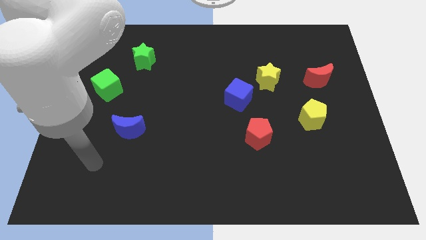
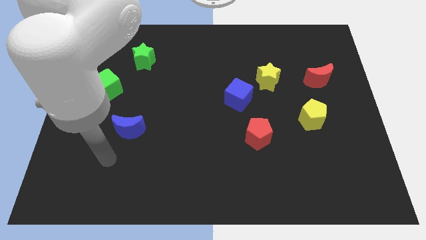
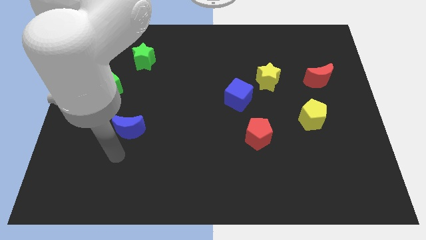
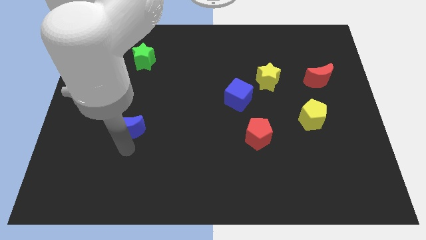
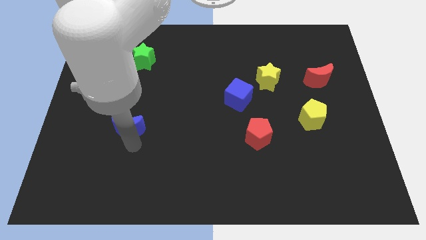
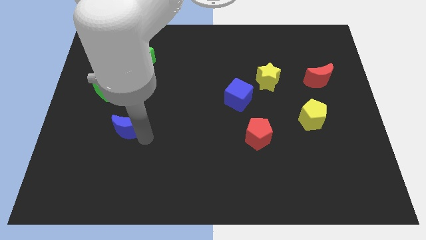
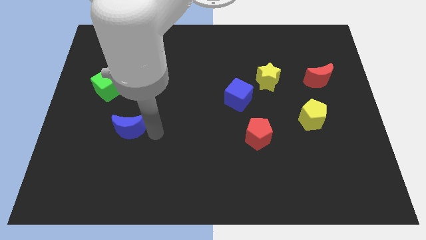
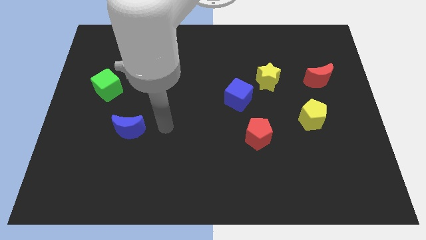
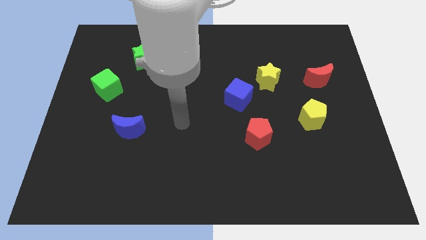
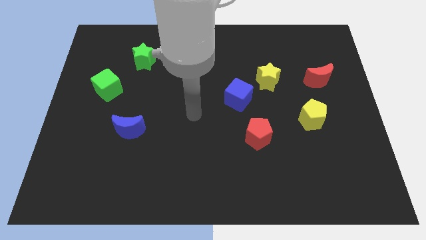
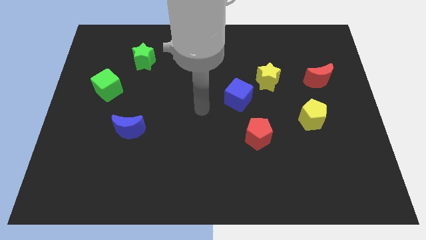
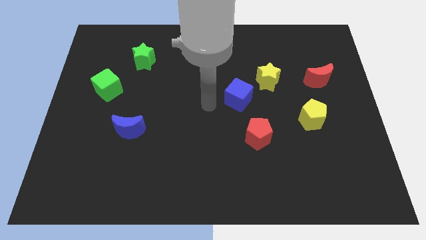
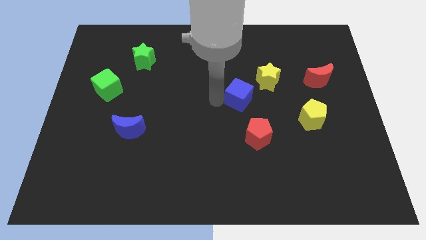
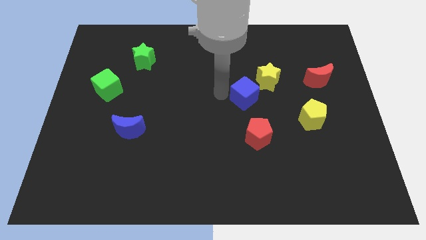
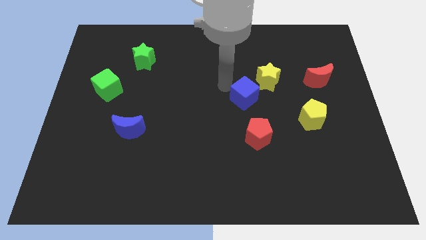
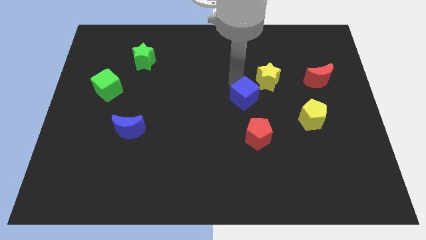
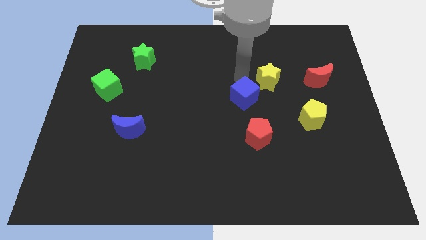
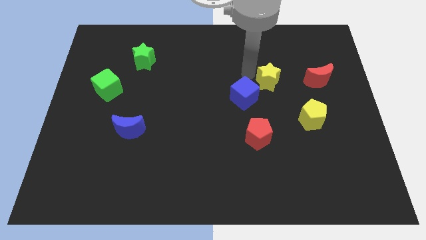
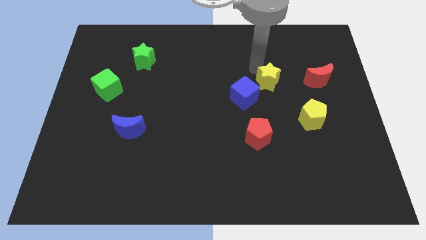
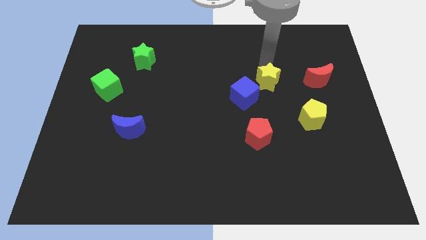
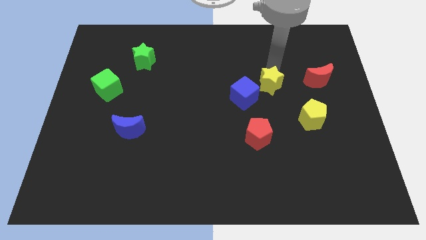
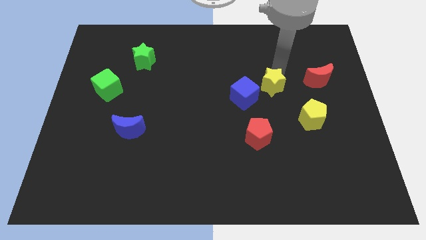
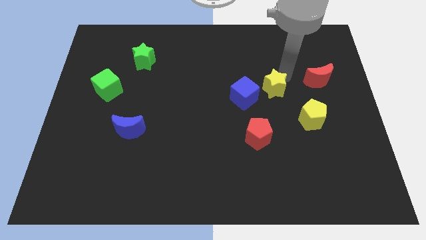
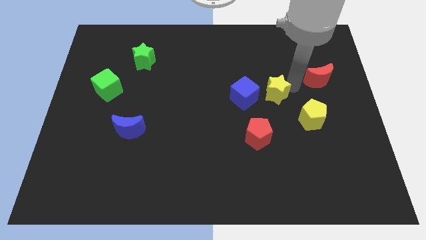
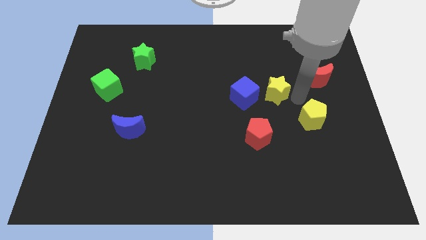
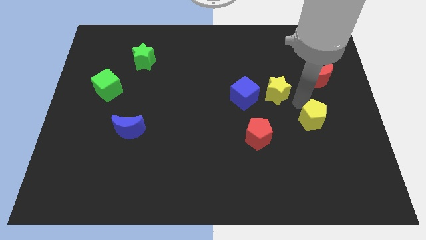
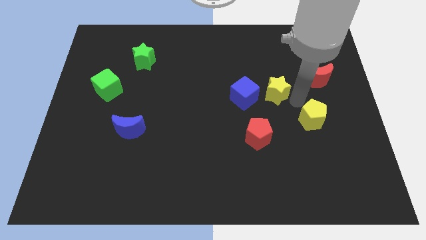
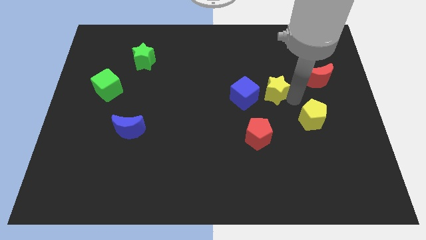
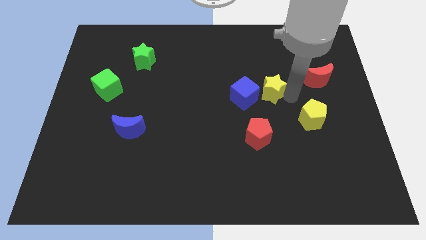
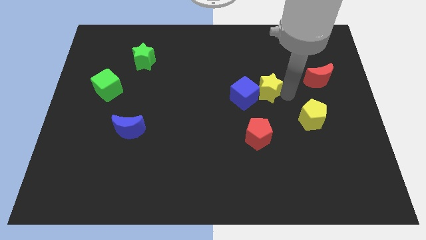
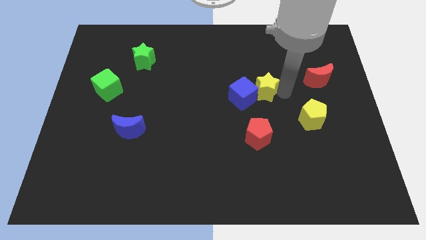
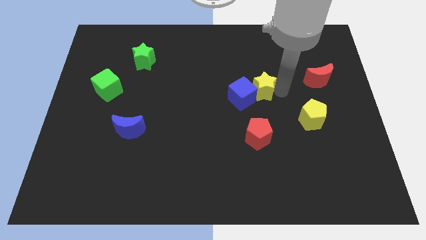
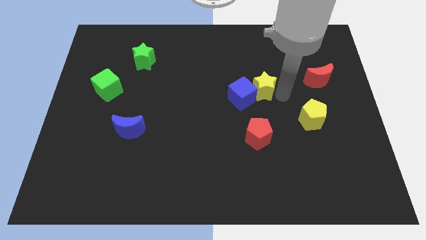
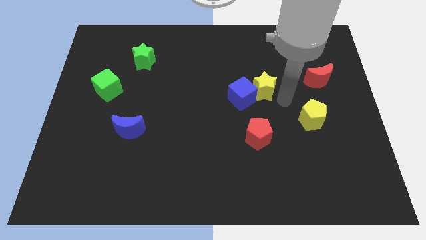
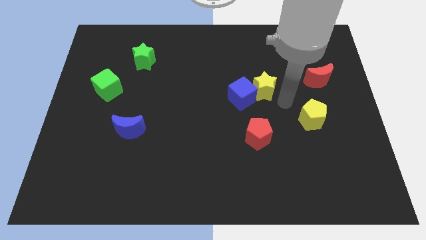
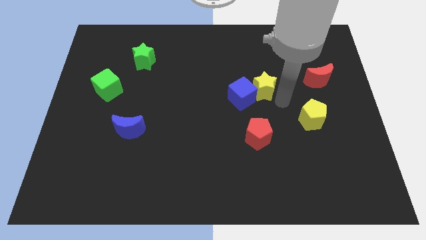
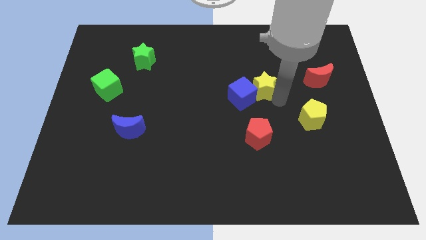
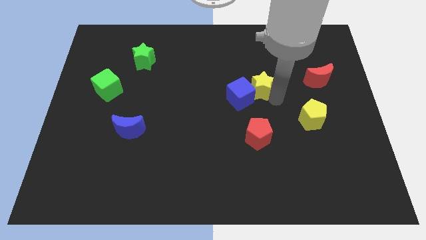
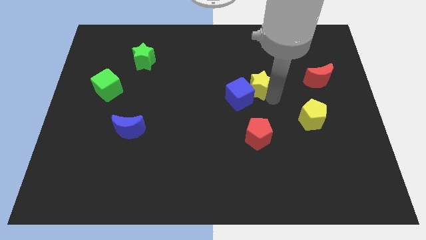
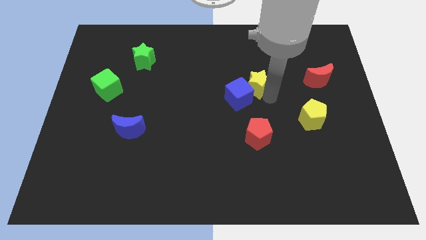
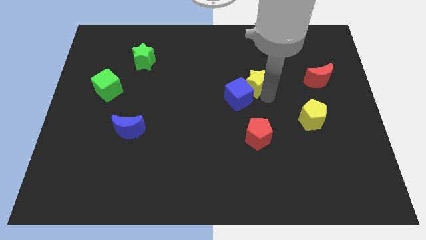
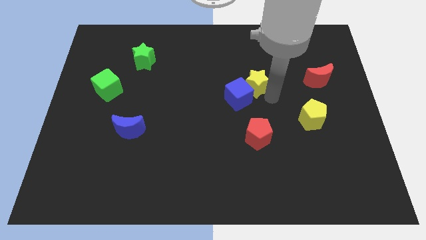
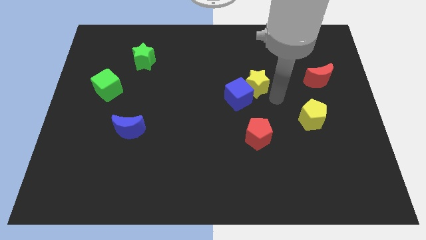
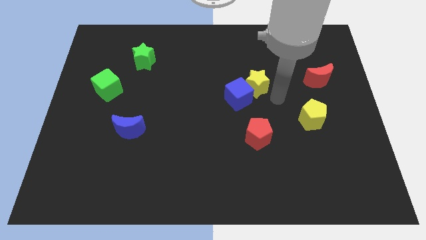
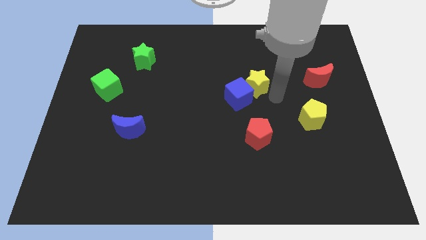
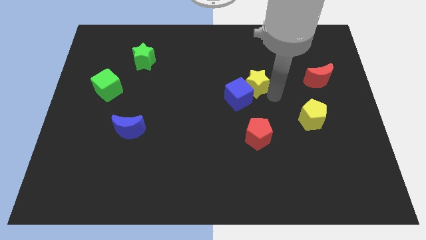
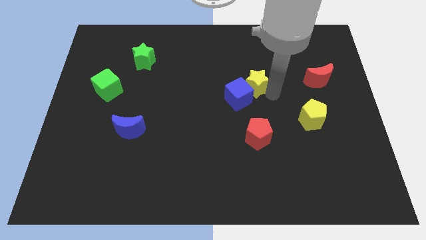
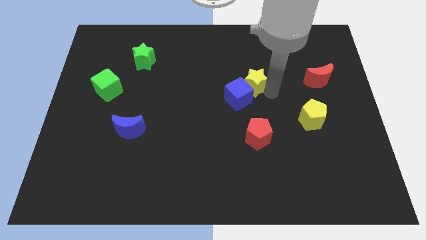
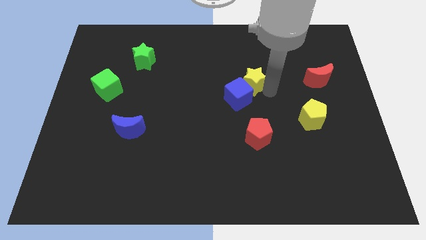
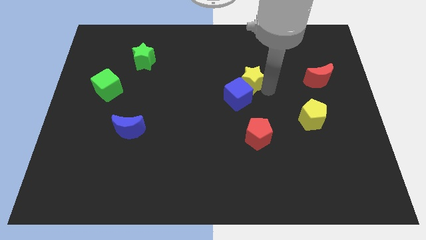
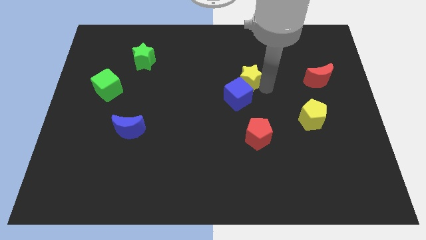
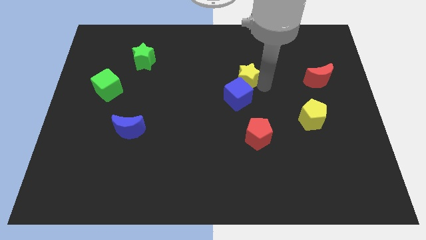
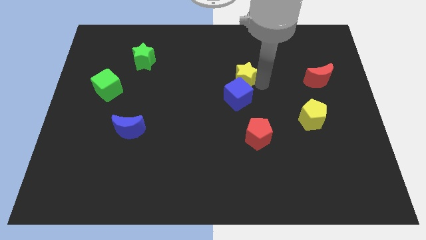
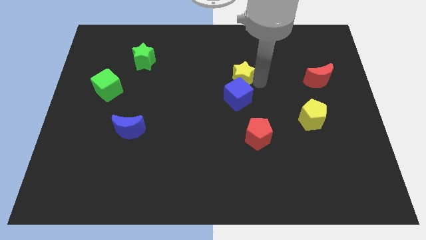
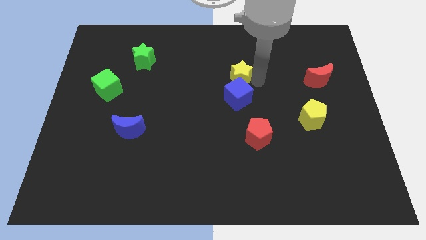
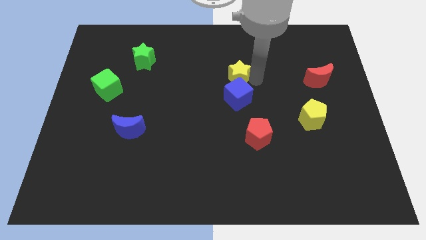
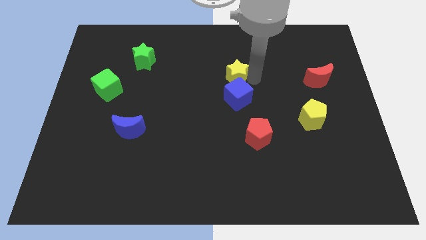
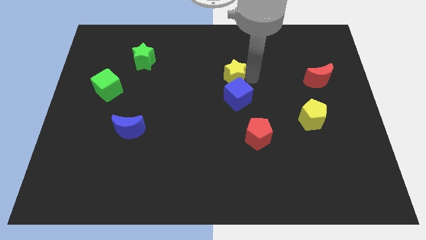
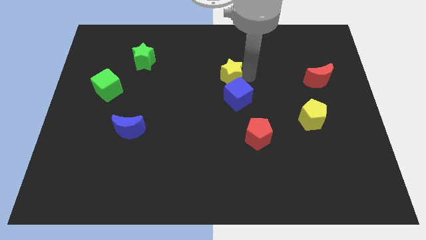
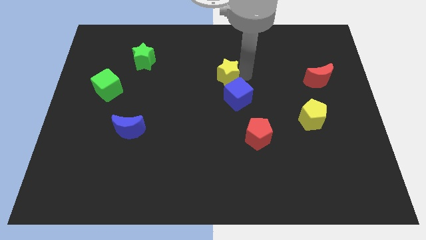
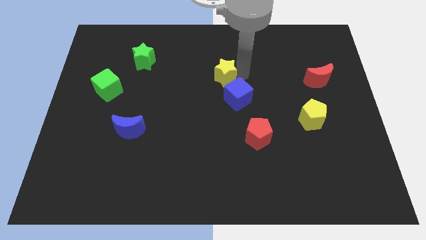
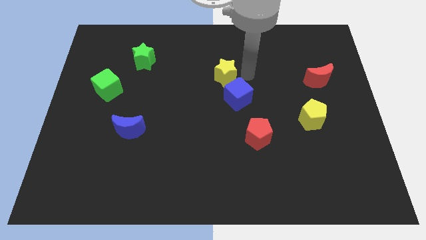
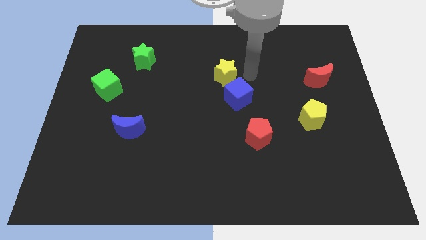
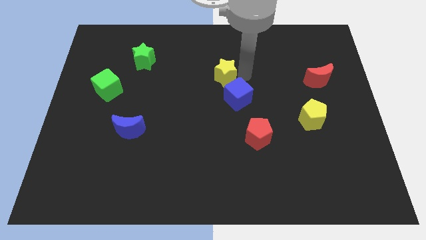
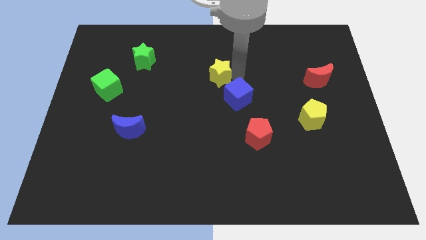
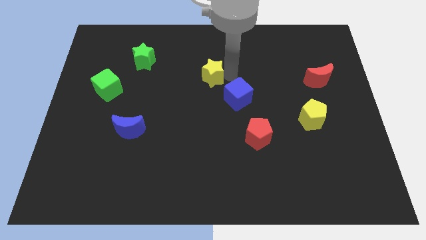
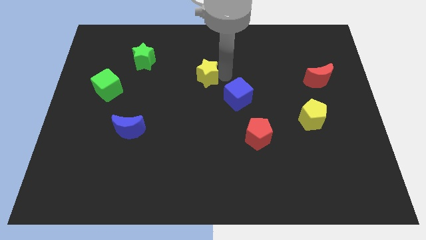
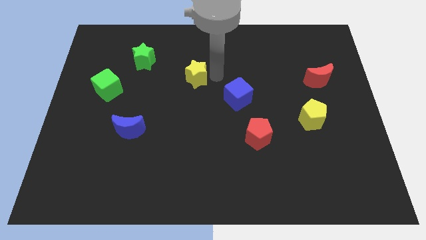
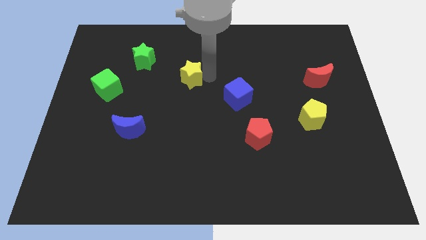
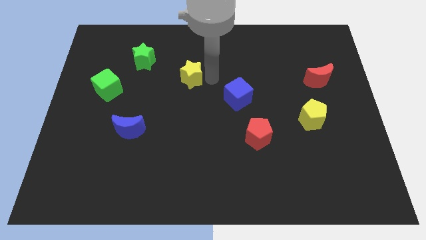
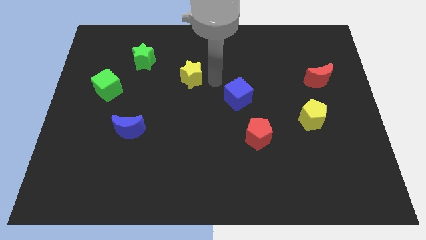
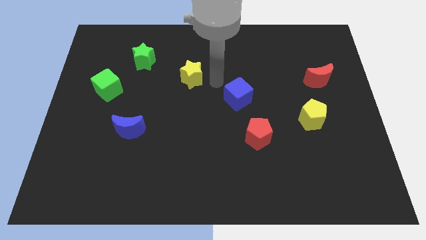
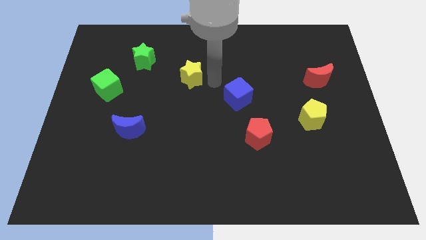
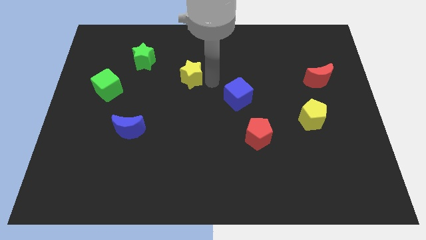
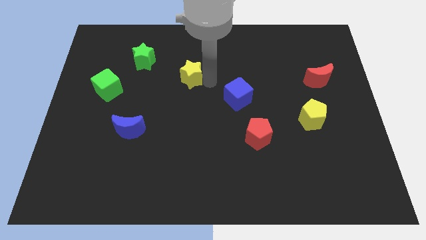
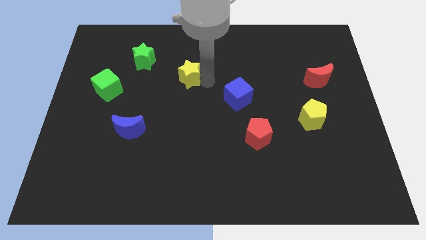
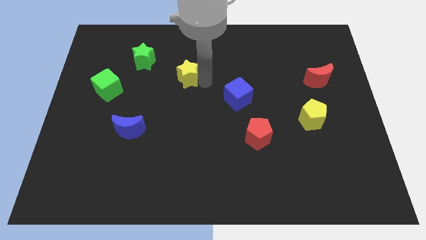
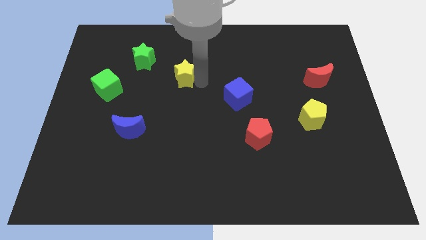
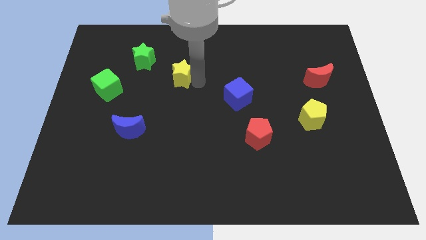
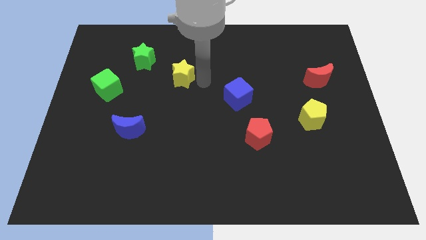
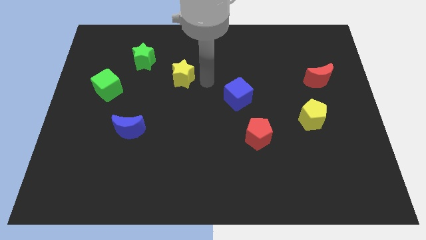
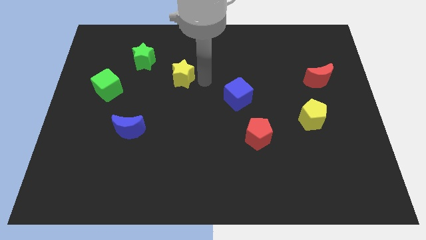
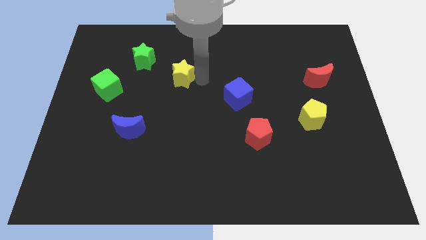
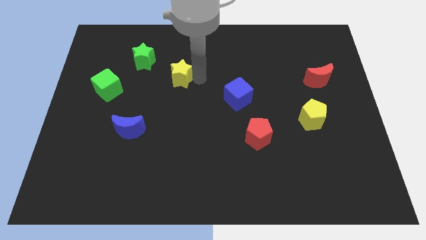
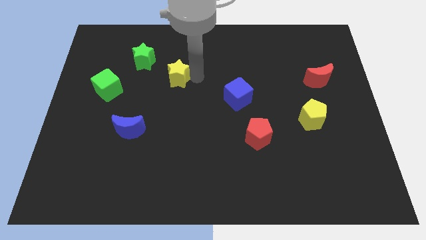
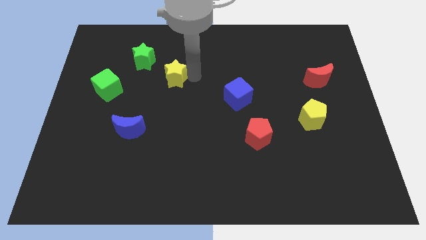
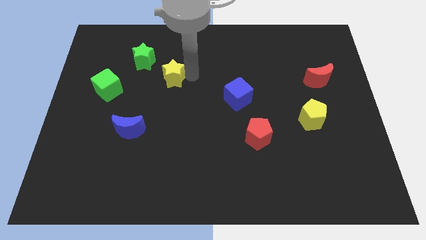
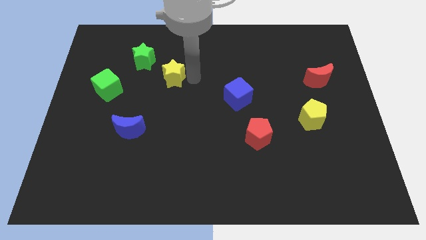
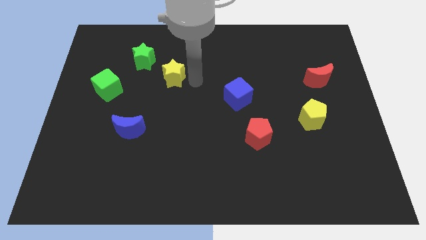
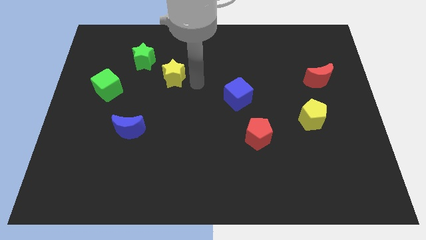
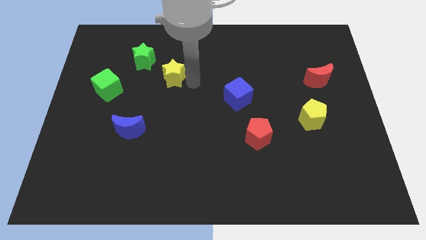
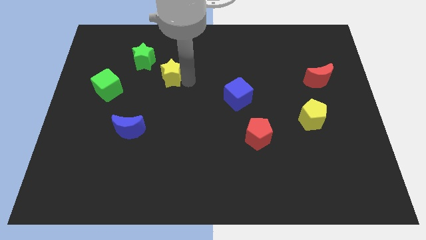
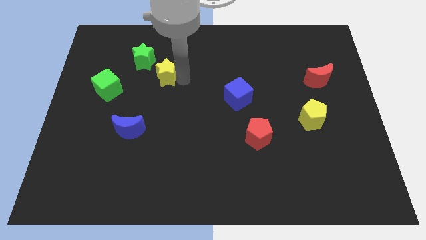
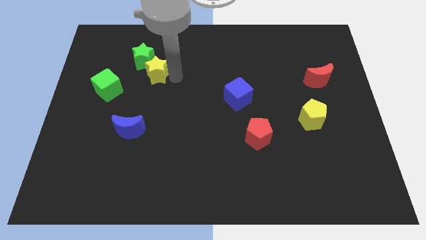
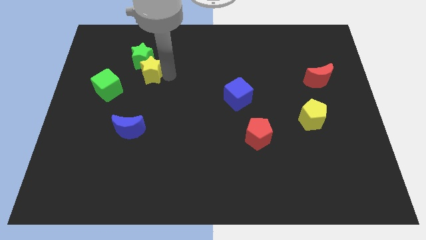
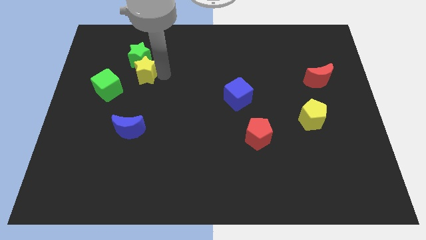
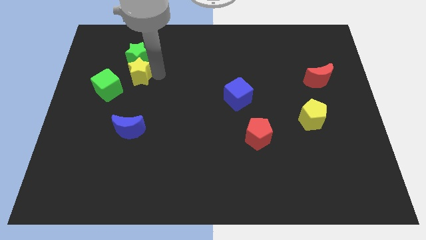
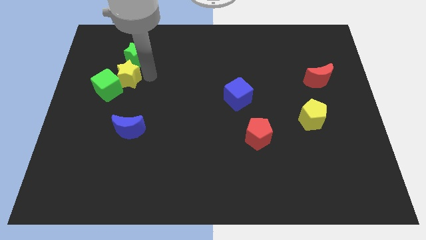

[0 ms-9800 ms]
push the yellow star to the top of the green cube
